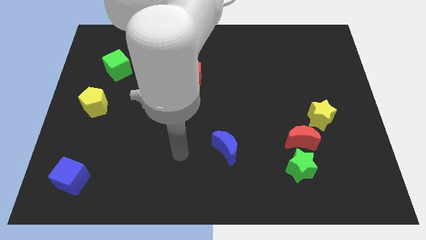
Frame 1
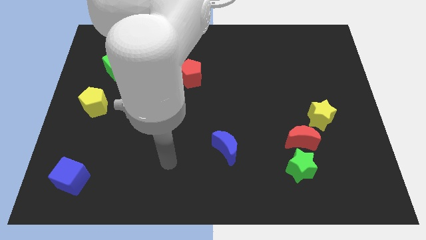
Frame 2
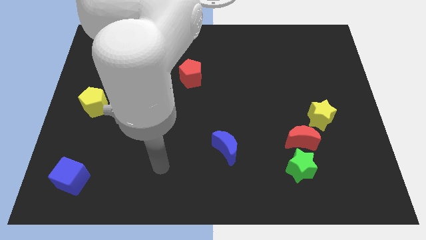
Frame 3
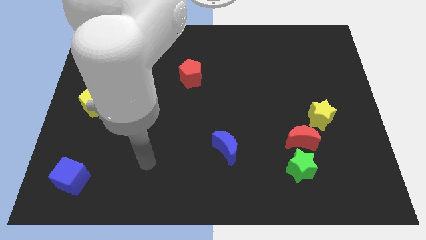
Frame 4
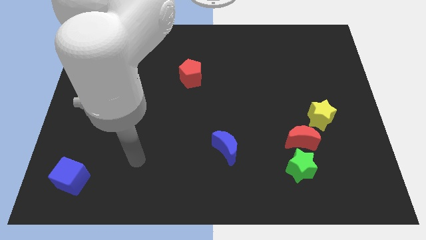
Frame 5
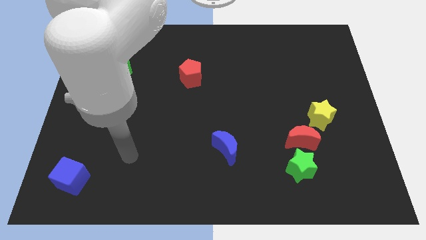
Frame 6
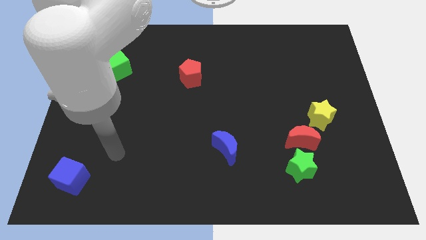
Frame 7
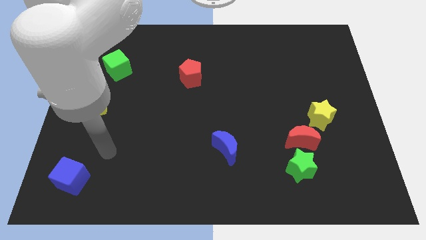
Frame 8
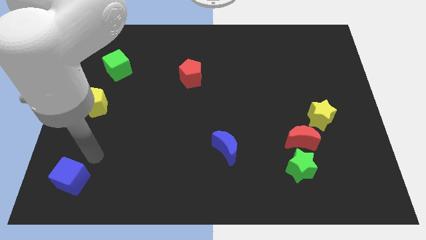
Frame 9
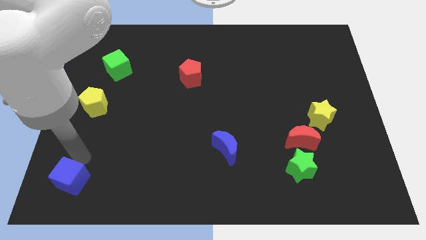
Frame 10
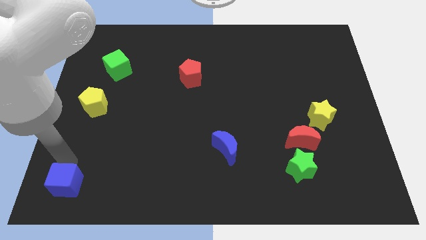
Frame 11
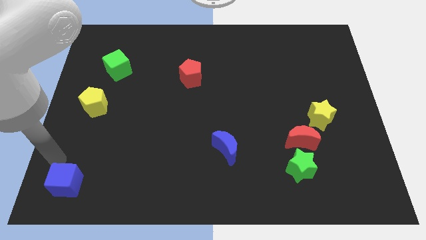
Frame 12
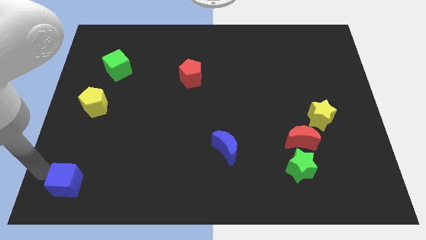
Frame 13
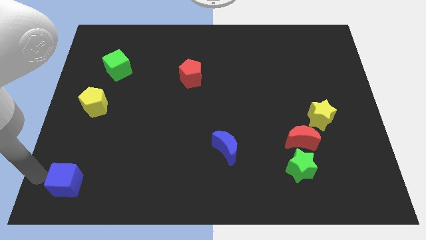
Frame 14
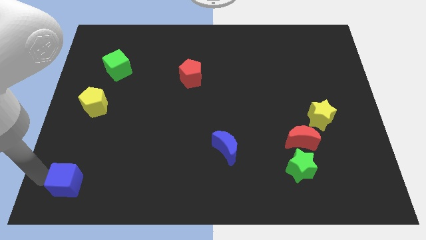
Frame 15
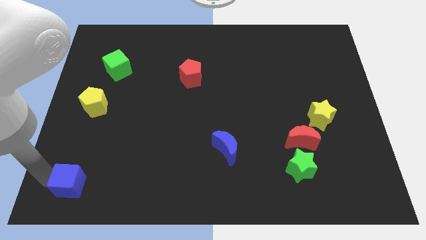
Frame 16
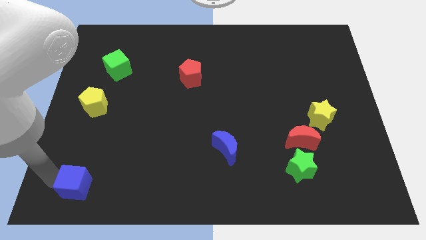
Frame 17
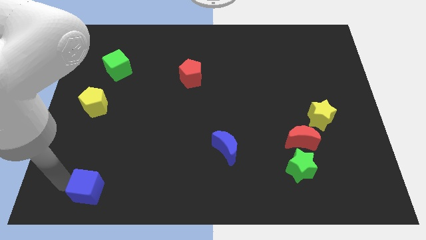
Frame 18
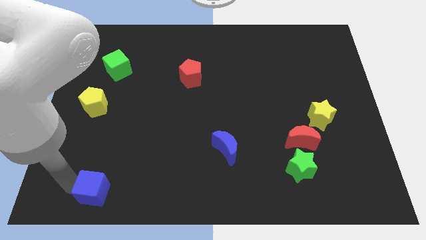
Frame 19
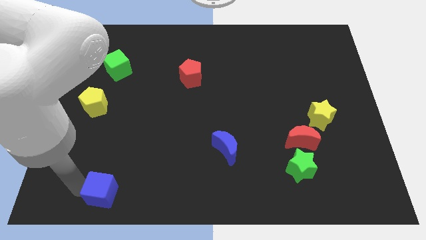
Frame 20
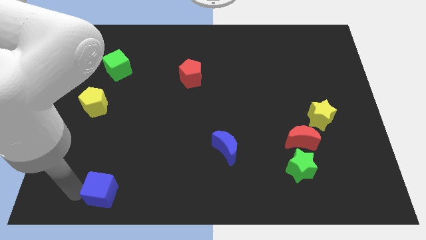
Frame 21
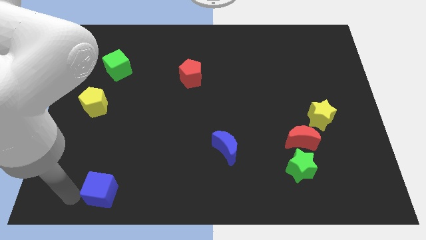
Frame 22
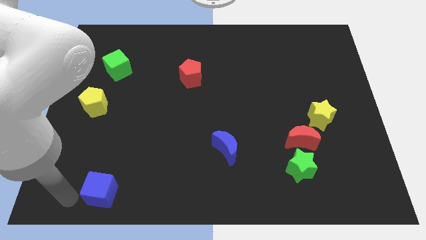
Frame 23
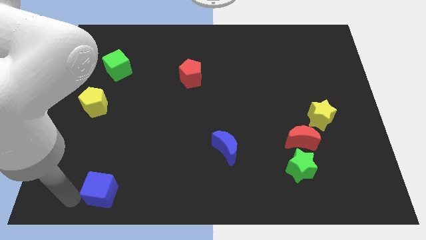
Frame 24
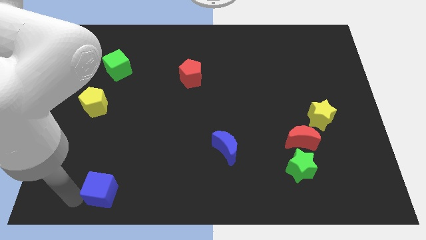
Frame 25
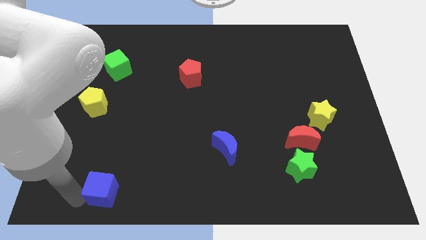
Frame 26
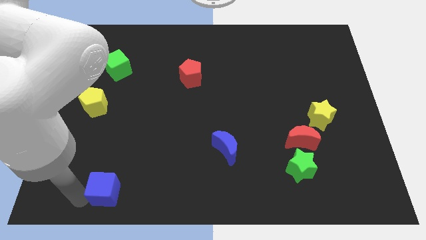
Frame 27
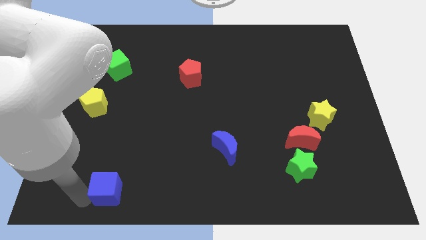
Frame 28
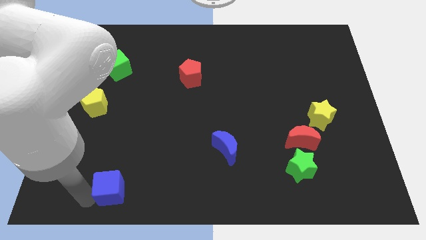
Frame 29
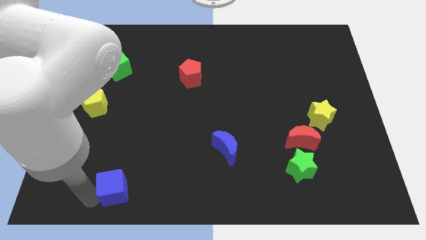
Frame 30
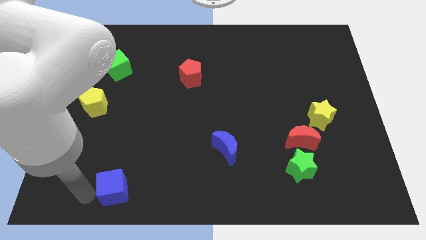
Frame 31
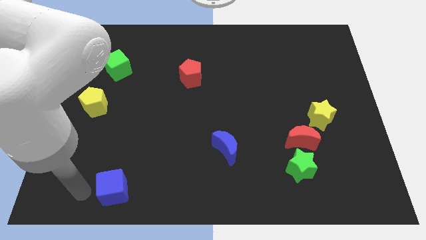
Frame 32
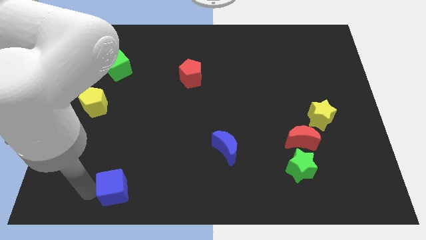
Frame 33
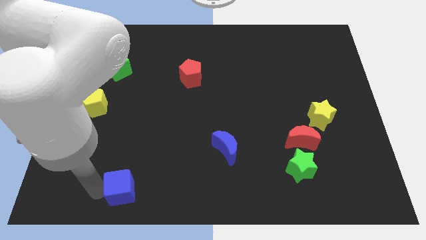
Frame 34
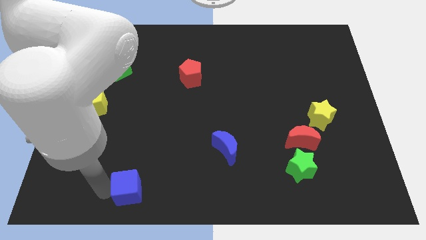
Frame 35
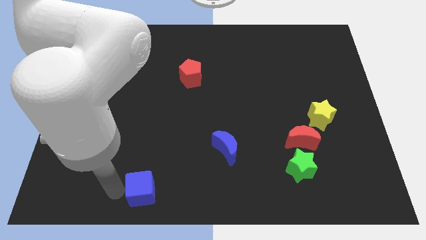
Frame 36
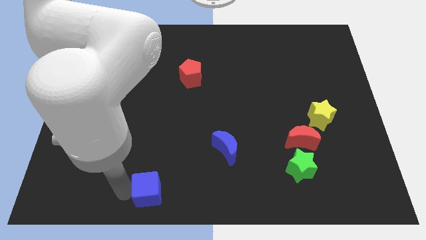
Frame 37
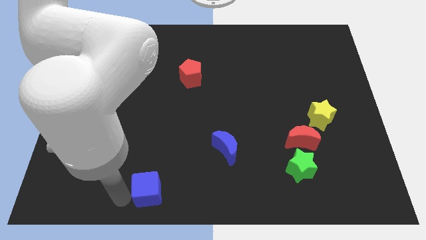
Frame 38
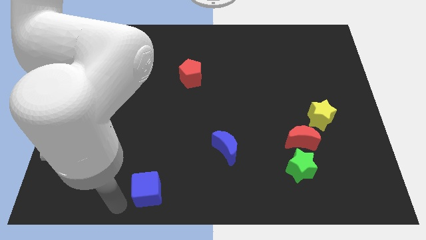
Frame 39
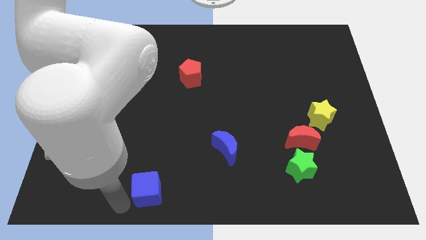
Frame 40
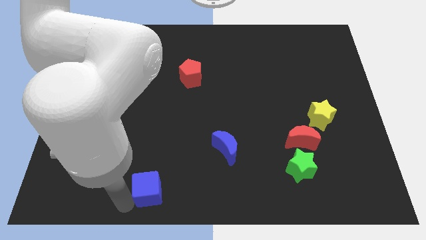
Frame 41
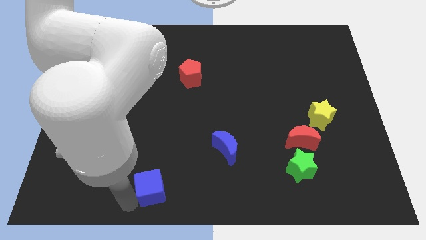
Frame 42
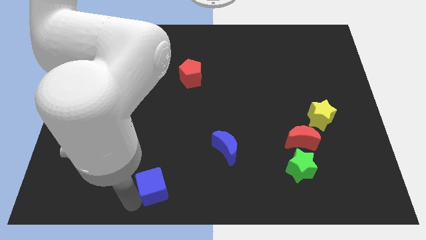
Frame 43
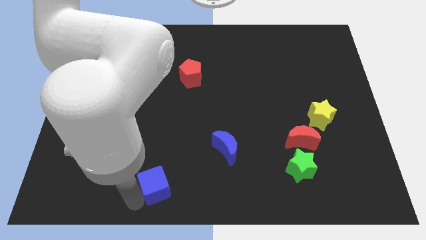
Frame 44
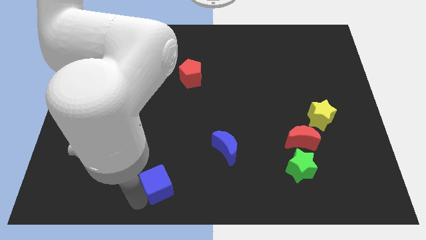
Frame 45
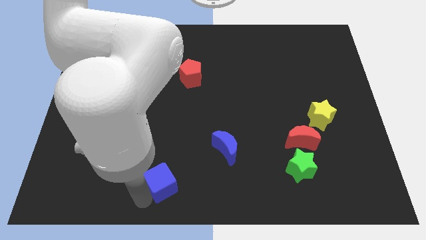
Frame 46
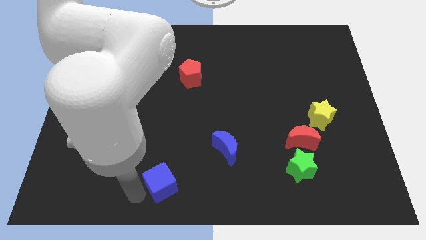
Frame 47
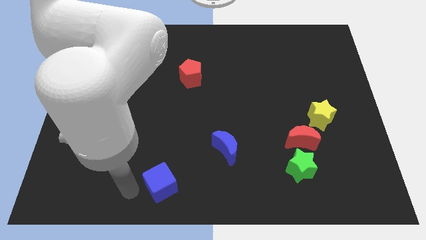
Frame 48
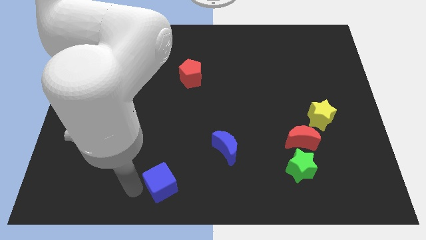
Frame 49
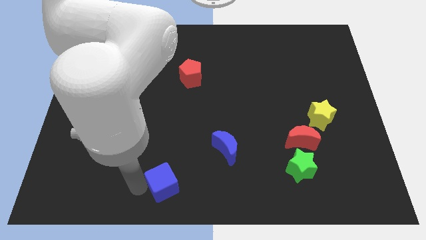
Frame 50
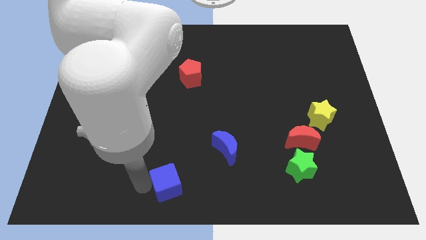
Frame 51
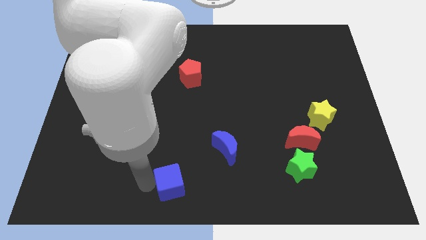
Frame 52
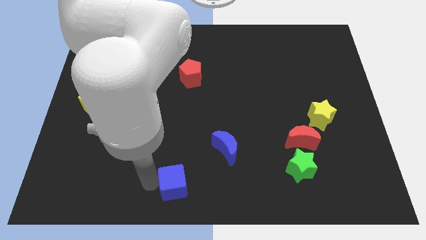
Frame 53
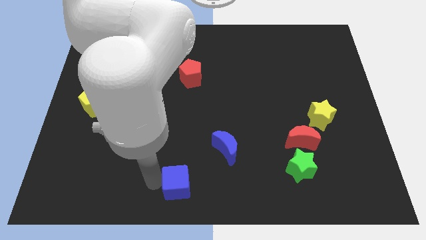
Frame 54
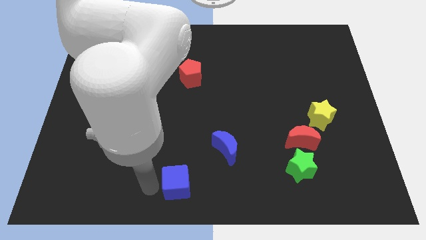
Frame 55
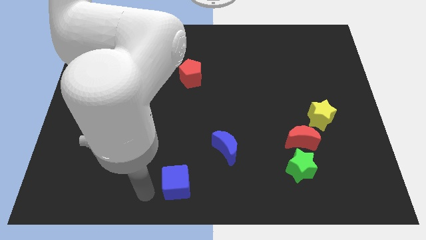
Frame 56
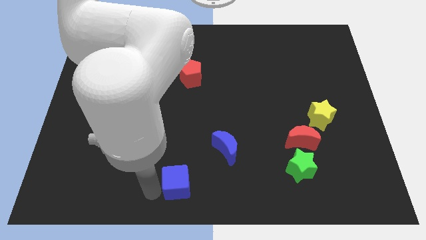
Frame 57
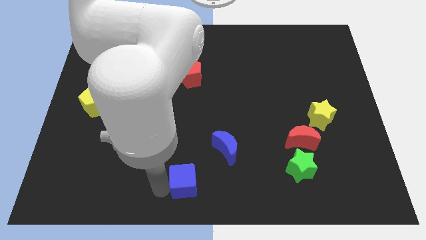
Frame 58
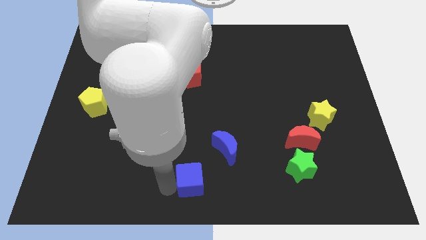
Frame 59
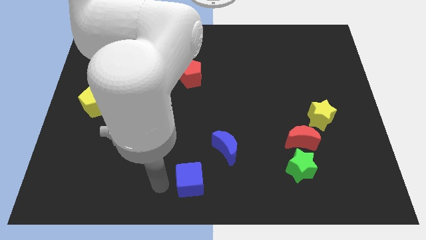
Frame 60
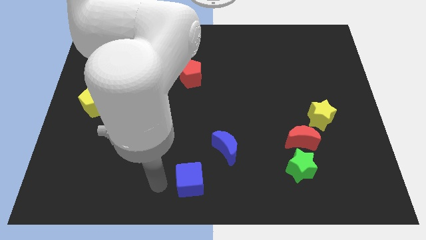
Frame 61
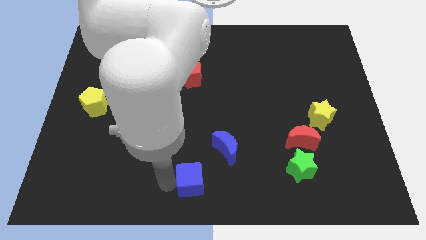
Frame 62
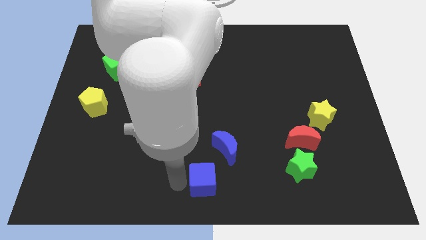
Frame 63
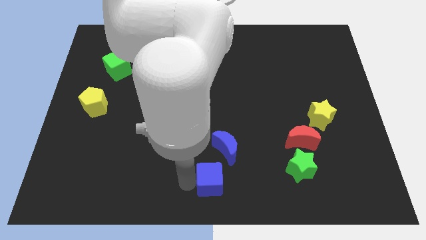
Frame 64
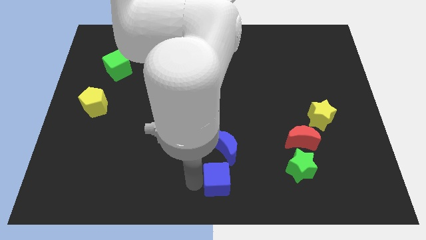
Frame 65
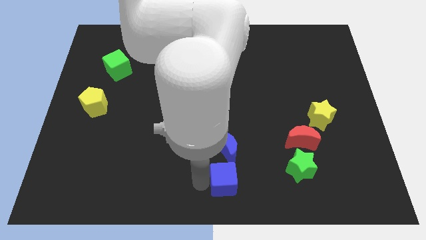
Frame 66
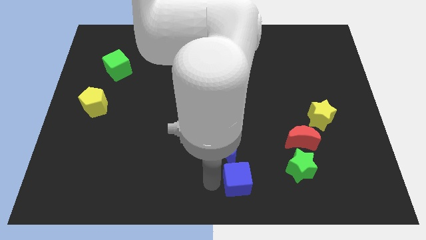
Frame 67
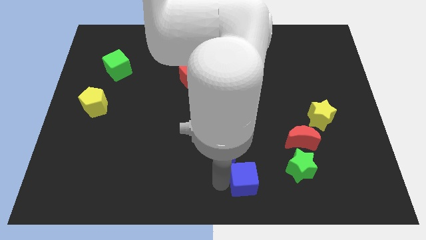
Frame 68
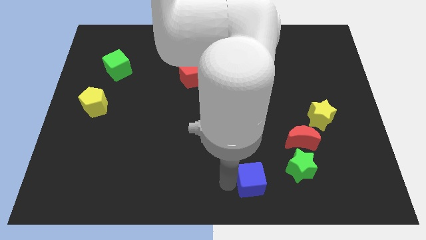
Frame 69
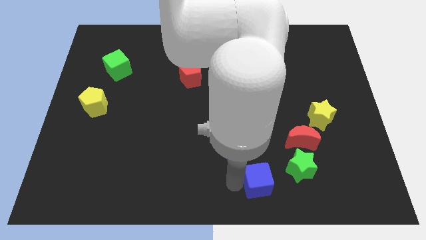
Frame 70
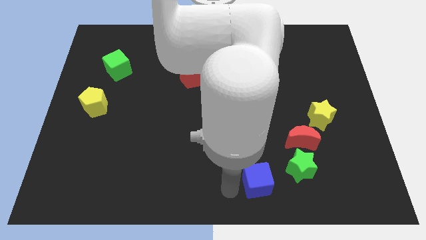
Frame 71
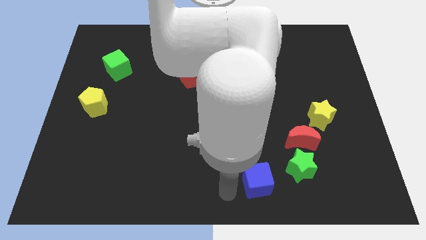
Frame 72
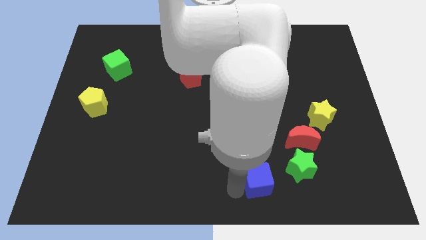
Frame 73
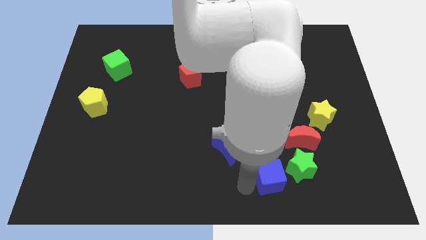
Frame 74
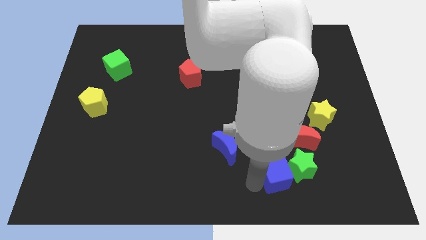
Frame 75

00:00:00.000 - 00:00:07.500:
push the blue cube towards the green star
